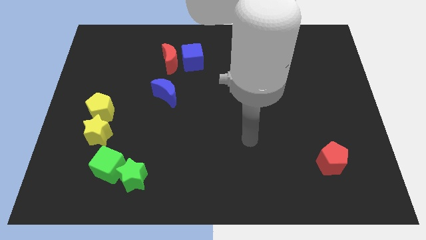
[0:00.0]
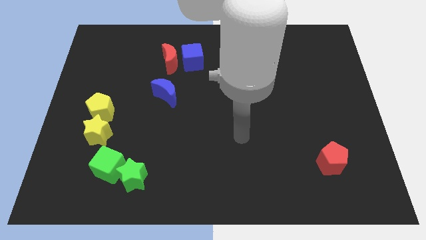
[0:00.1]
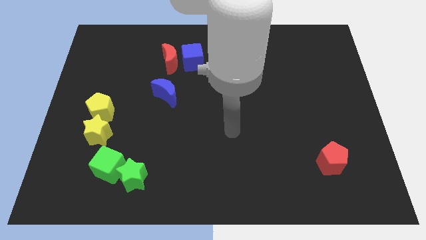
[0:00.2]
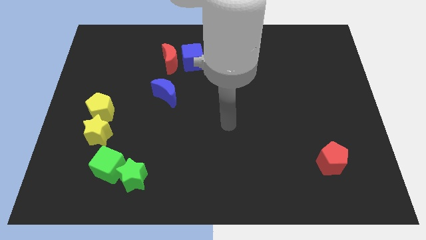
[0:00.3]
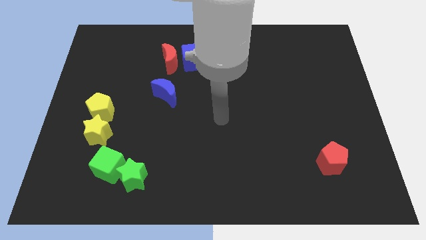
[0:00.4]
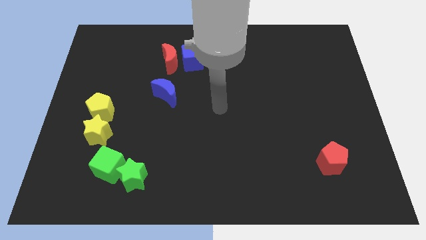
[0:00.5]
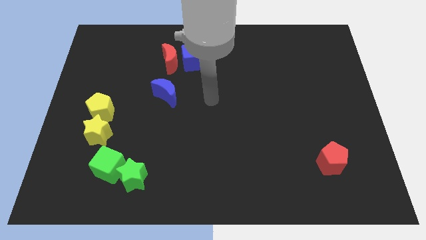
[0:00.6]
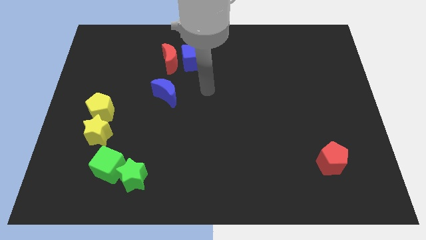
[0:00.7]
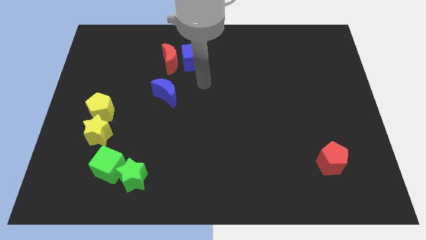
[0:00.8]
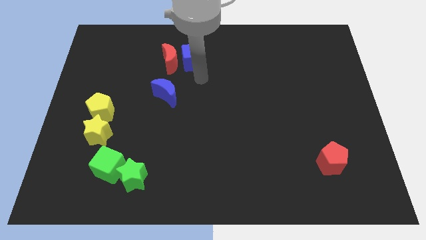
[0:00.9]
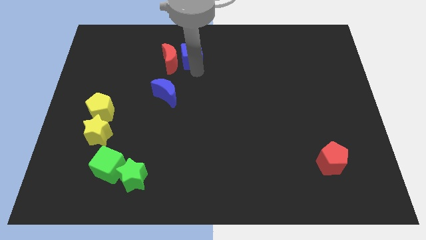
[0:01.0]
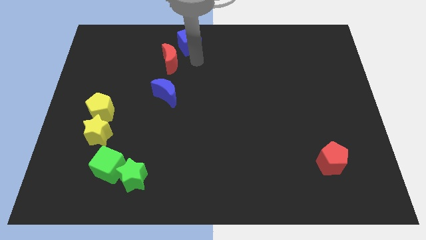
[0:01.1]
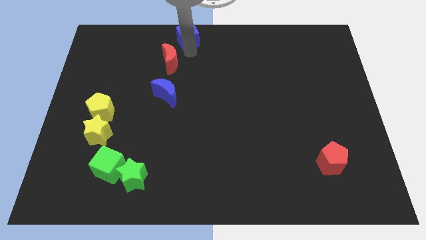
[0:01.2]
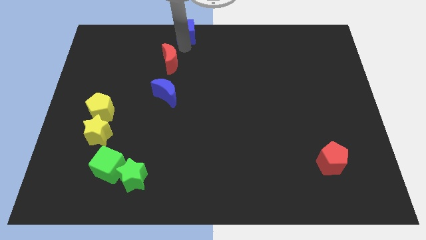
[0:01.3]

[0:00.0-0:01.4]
pull the red moon apart from the blue cube

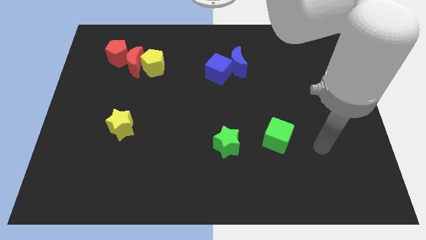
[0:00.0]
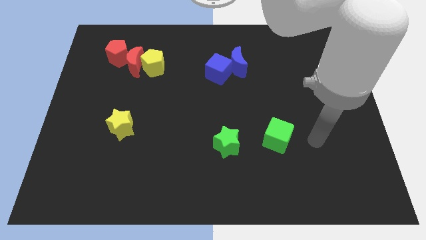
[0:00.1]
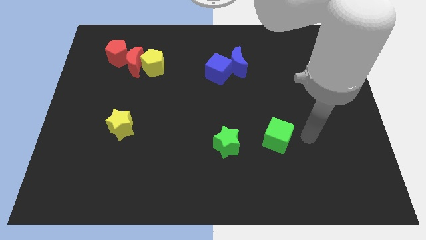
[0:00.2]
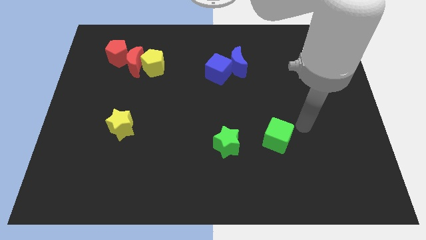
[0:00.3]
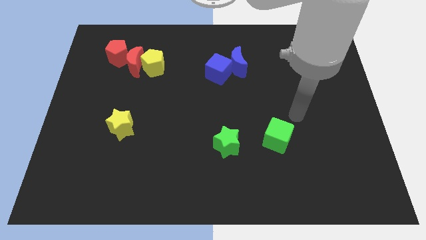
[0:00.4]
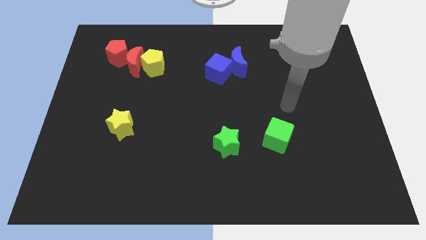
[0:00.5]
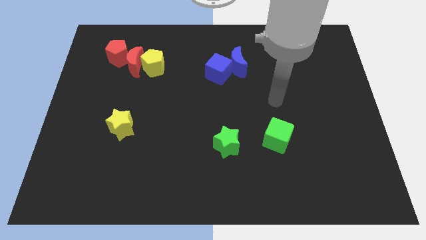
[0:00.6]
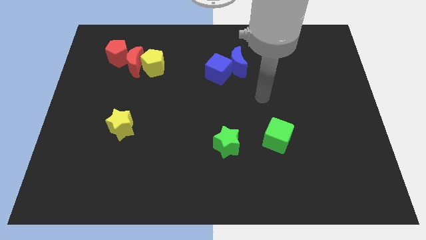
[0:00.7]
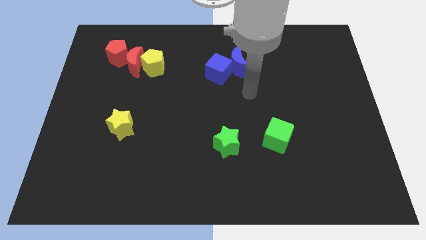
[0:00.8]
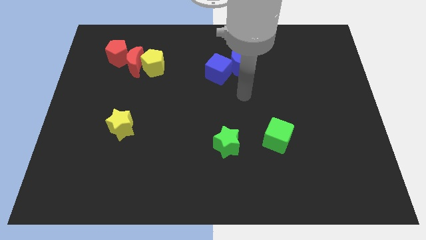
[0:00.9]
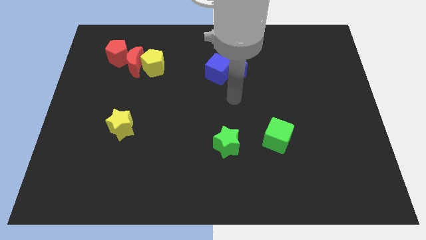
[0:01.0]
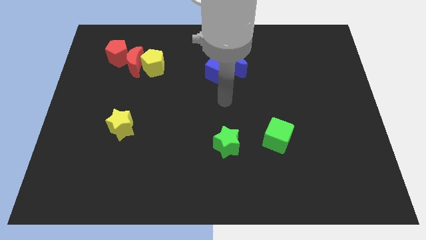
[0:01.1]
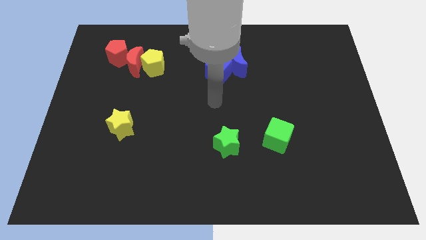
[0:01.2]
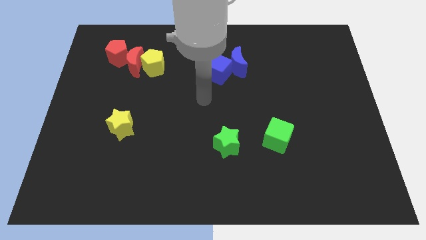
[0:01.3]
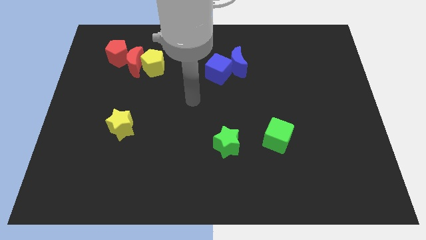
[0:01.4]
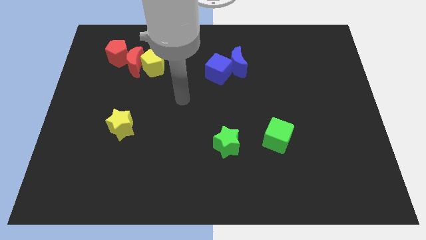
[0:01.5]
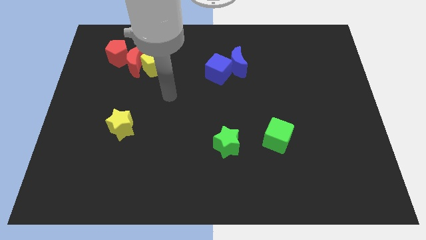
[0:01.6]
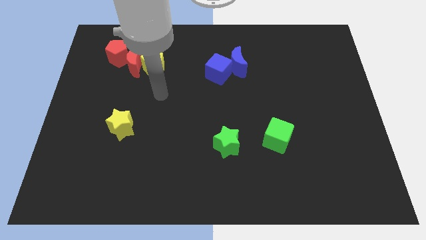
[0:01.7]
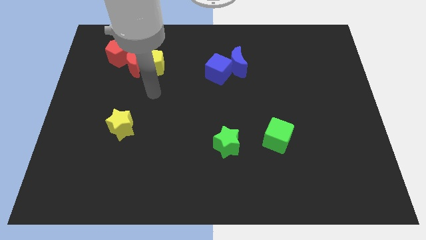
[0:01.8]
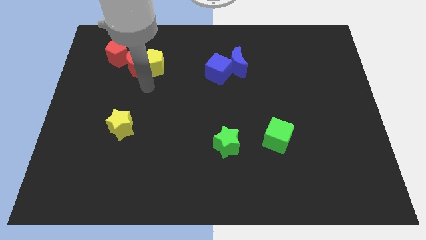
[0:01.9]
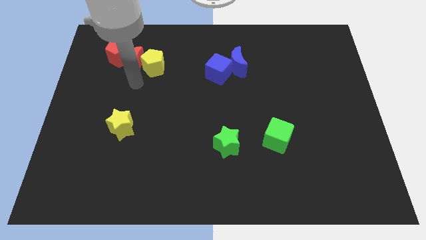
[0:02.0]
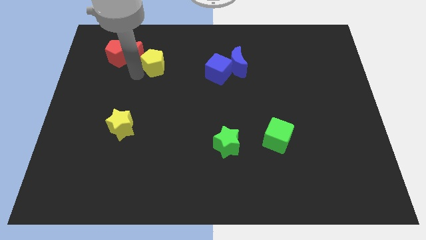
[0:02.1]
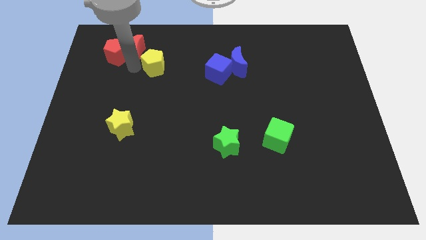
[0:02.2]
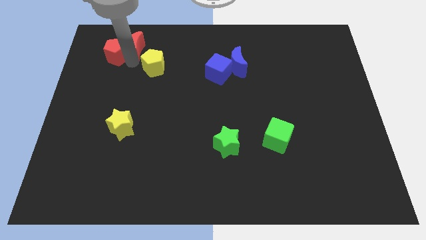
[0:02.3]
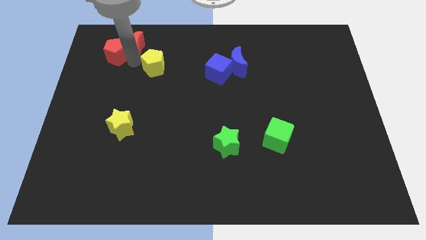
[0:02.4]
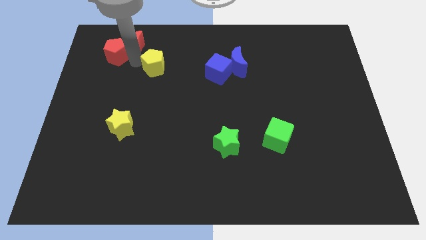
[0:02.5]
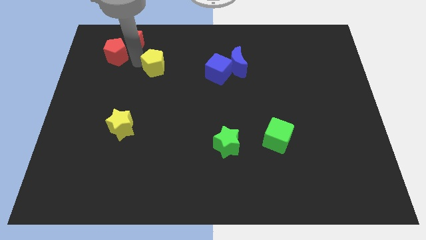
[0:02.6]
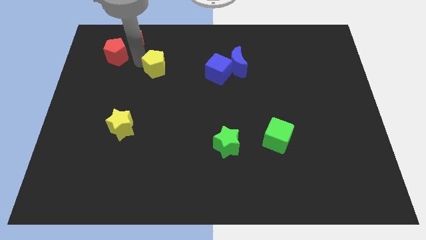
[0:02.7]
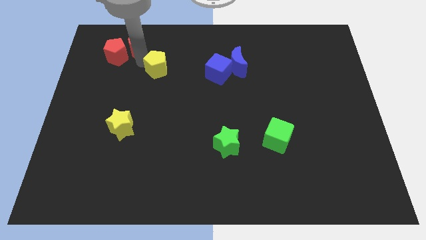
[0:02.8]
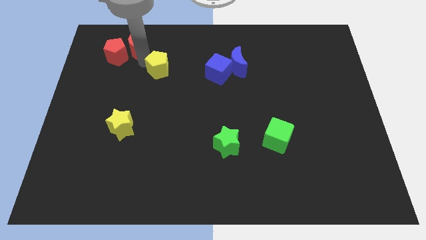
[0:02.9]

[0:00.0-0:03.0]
pull the yellow pentagon apart from the red moon

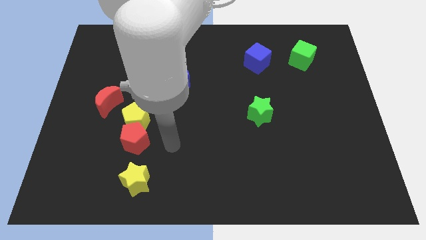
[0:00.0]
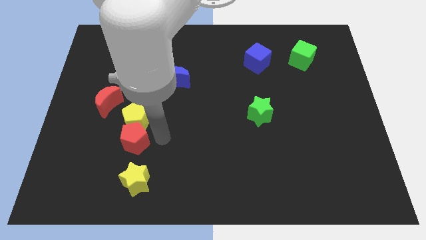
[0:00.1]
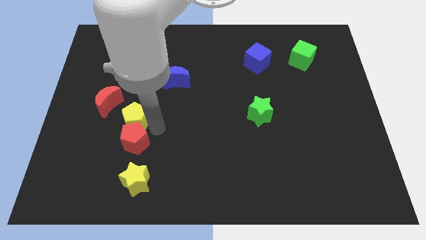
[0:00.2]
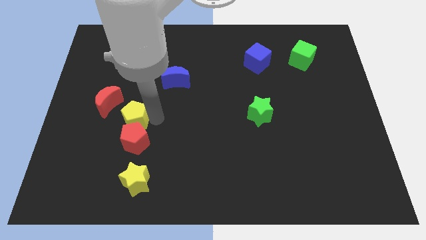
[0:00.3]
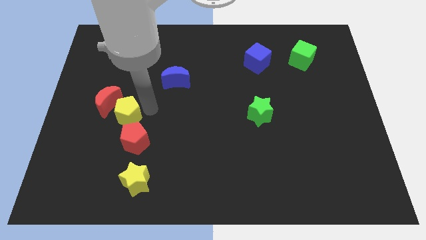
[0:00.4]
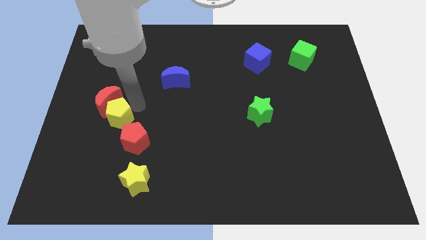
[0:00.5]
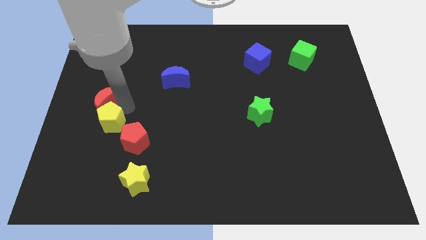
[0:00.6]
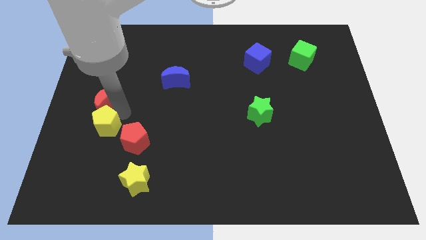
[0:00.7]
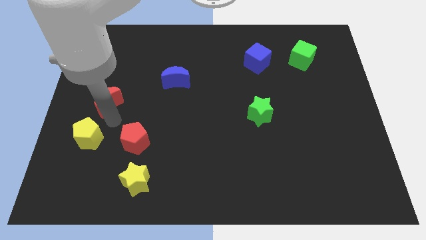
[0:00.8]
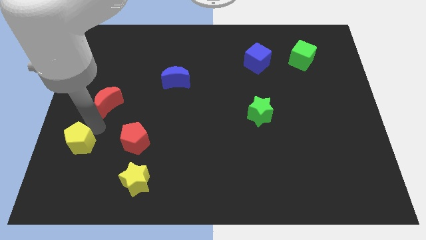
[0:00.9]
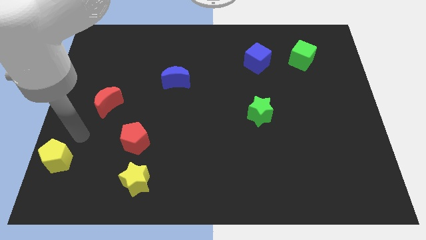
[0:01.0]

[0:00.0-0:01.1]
move the yellow pentagon away from the red pentagon and red moon

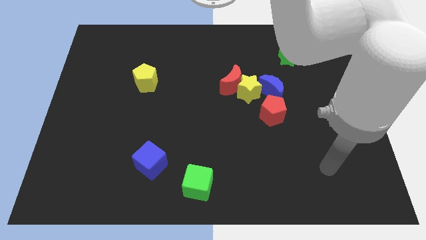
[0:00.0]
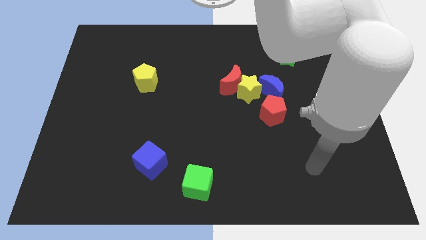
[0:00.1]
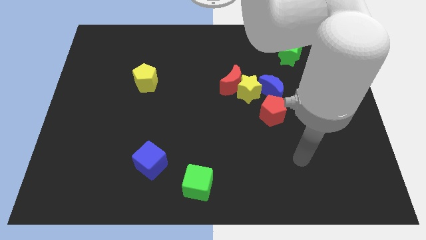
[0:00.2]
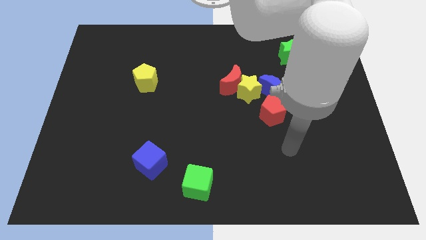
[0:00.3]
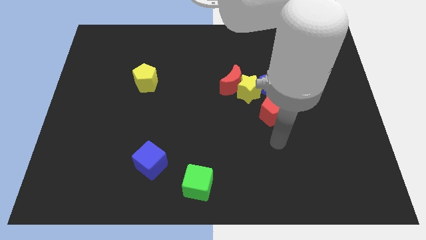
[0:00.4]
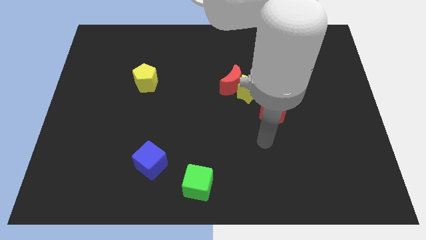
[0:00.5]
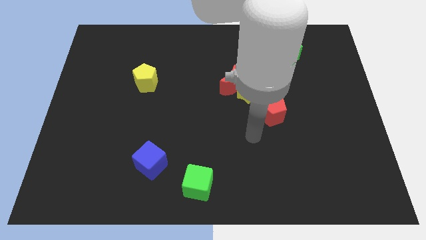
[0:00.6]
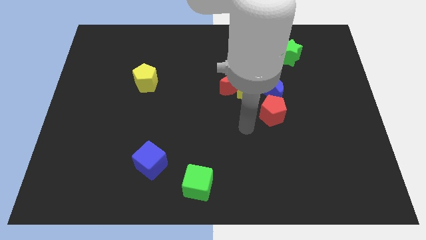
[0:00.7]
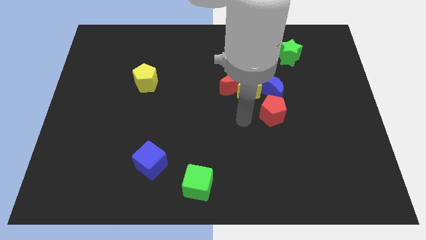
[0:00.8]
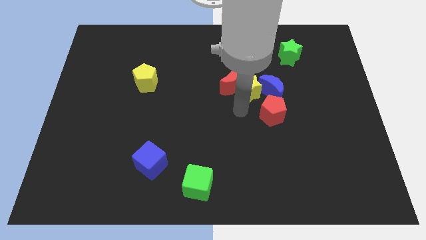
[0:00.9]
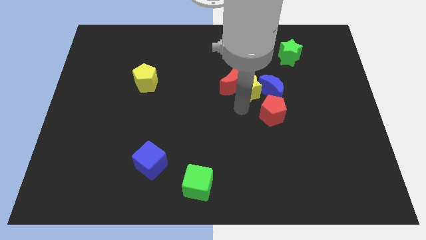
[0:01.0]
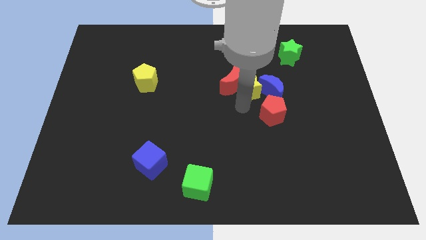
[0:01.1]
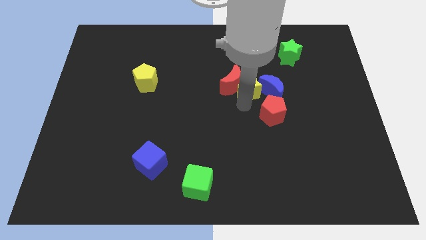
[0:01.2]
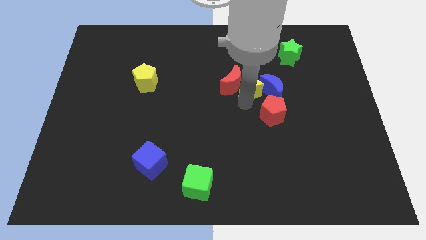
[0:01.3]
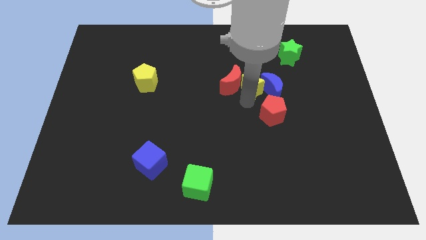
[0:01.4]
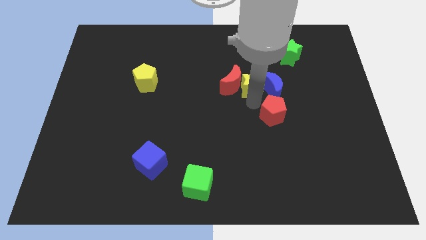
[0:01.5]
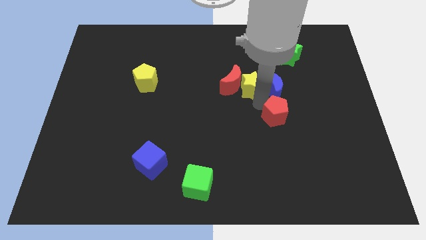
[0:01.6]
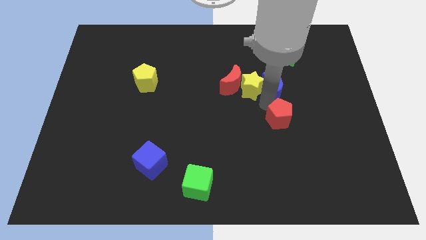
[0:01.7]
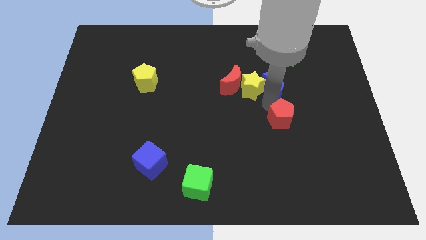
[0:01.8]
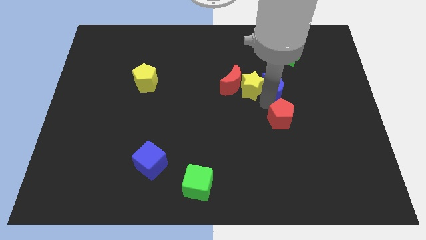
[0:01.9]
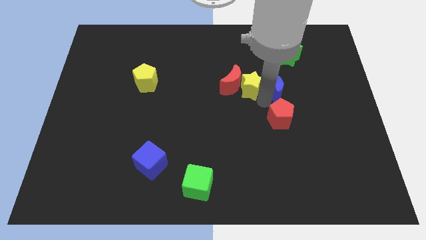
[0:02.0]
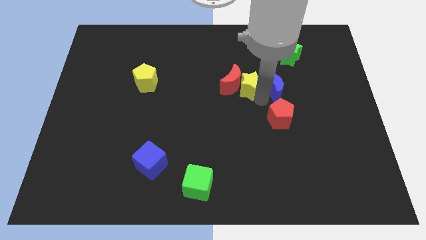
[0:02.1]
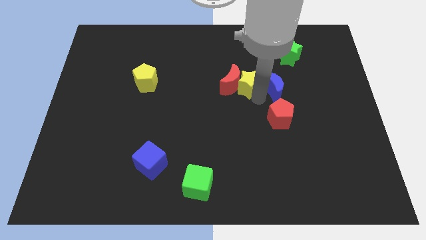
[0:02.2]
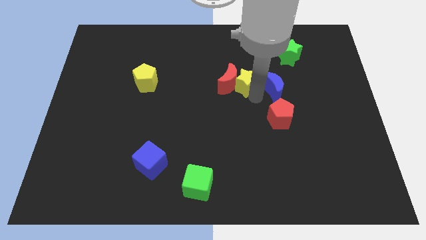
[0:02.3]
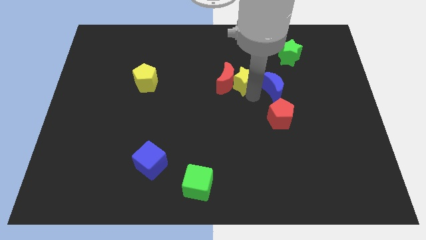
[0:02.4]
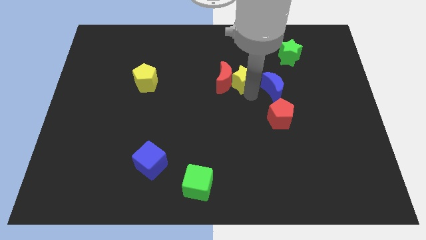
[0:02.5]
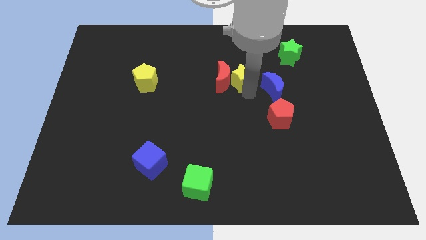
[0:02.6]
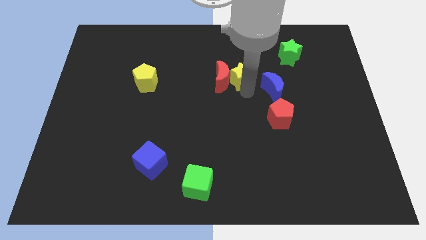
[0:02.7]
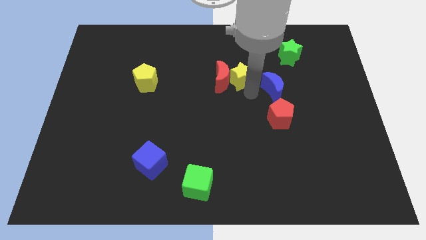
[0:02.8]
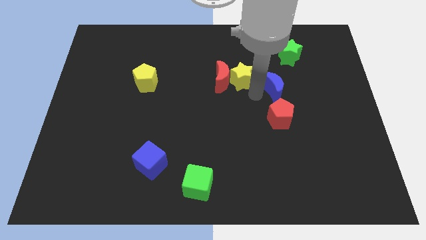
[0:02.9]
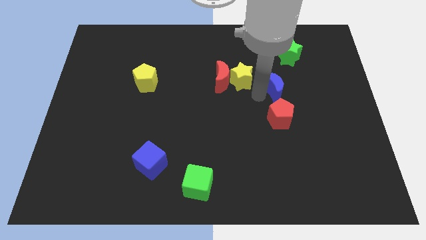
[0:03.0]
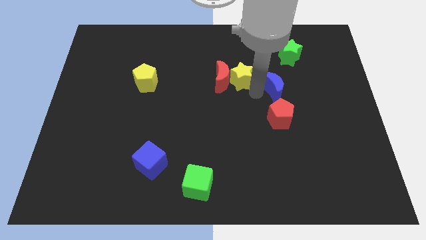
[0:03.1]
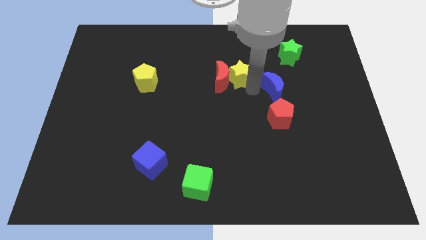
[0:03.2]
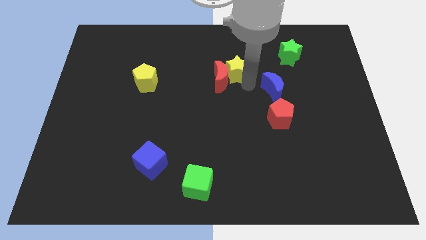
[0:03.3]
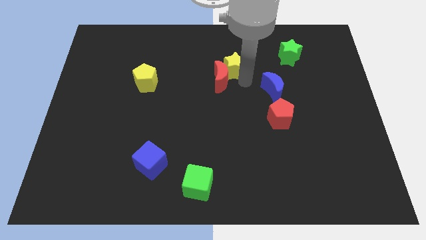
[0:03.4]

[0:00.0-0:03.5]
move the yellow star away from the red moon, blue moon, and red pentagon

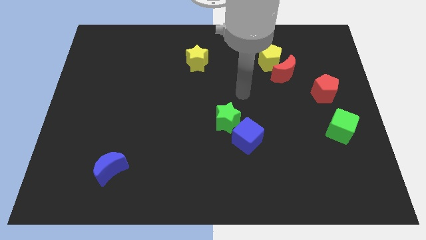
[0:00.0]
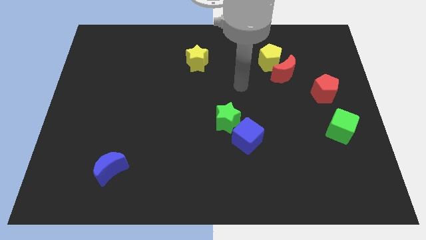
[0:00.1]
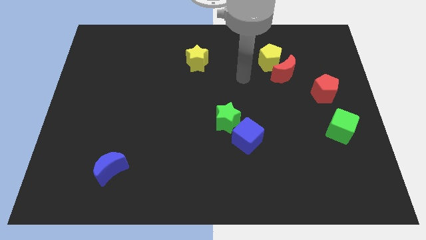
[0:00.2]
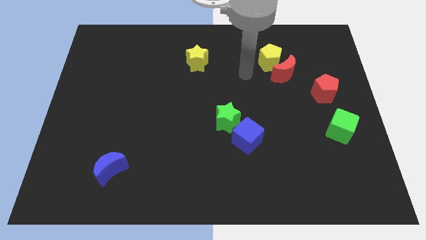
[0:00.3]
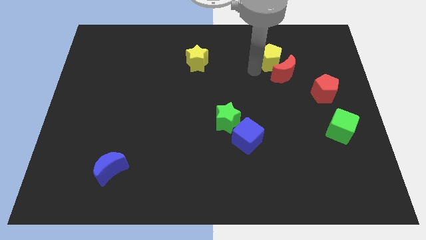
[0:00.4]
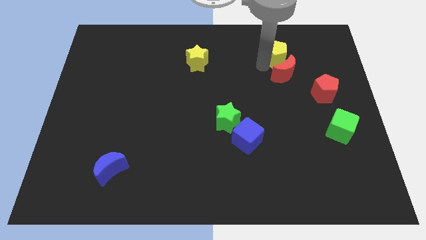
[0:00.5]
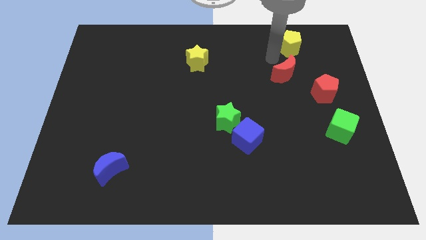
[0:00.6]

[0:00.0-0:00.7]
pull the red moon apart from the yellow pentagon
